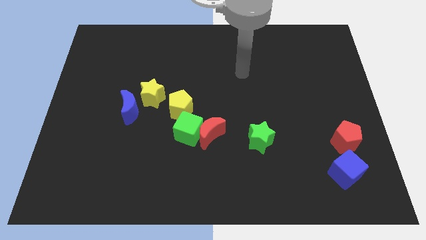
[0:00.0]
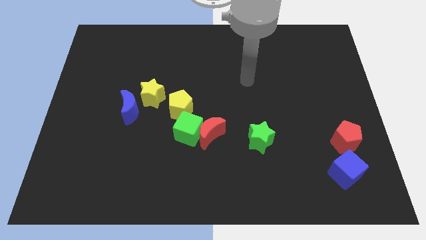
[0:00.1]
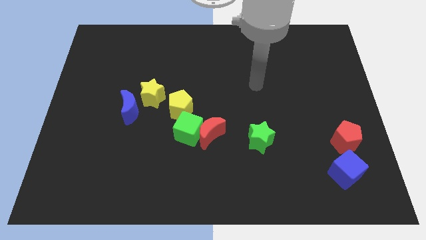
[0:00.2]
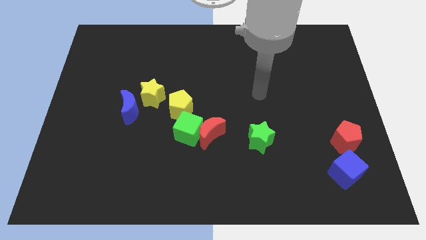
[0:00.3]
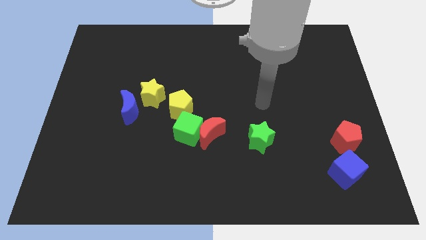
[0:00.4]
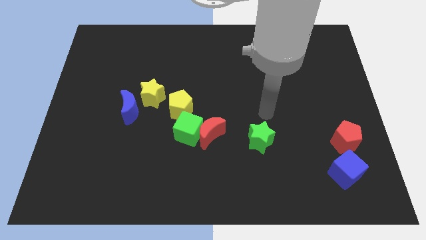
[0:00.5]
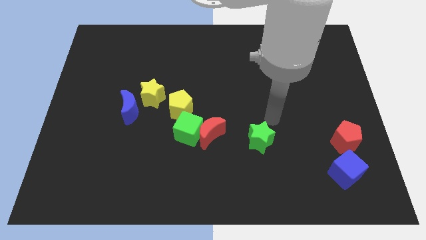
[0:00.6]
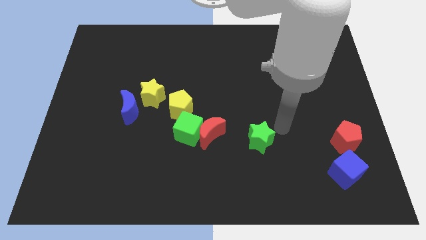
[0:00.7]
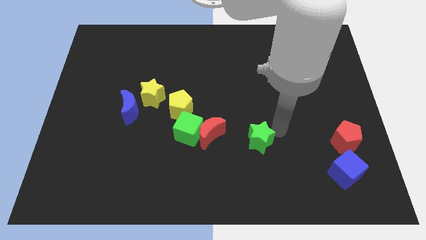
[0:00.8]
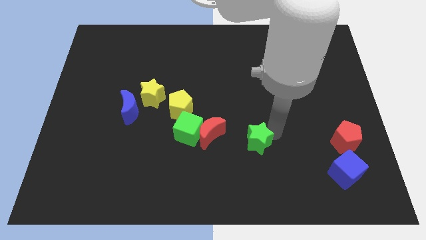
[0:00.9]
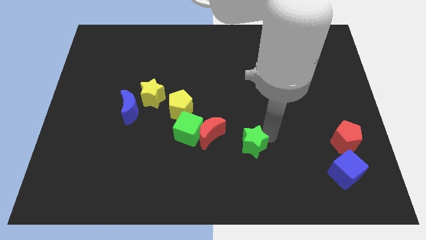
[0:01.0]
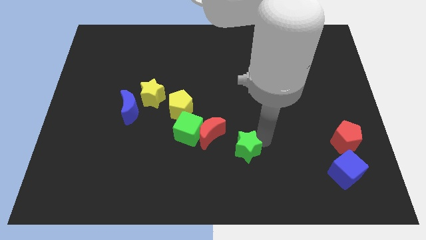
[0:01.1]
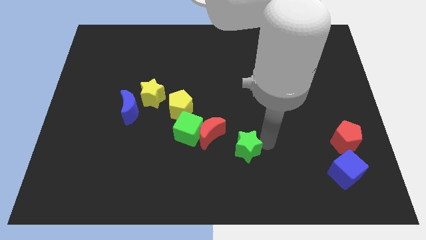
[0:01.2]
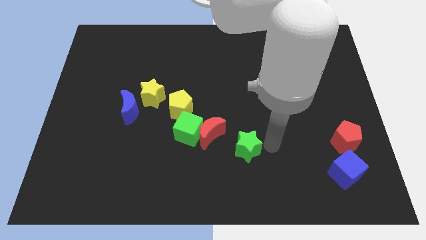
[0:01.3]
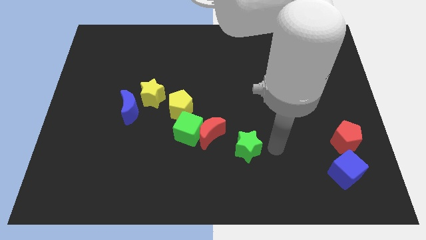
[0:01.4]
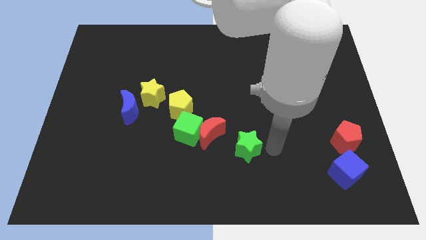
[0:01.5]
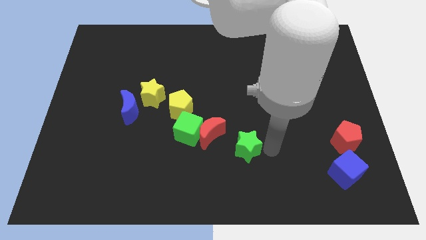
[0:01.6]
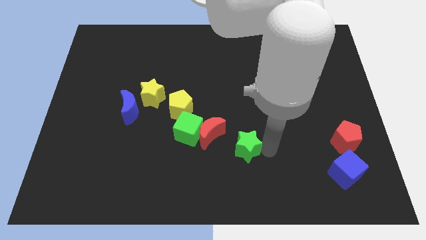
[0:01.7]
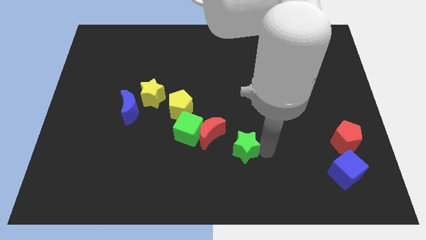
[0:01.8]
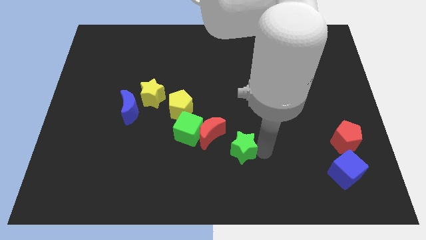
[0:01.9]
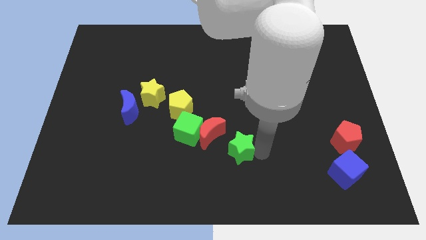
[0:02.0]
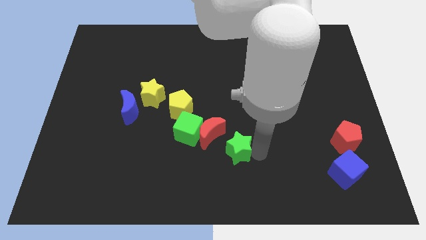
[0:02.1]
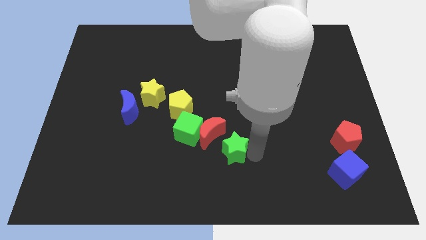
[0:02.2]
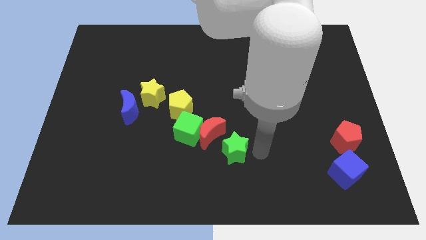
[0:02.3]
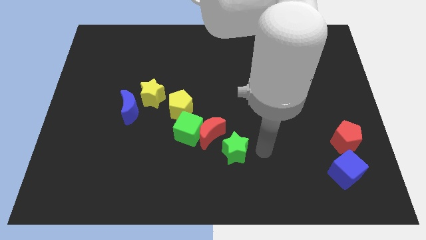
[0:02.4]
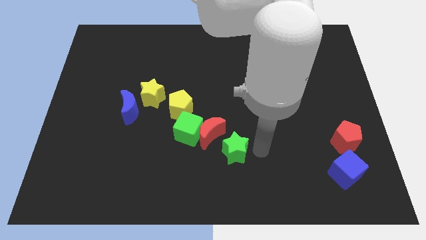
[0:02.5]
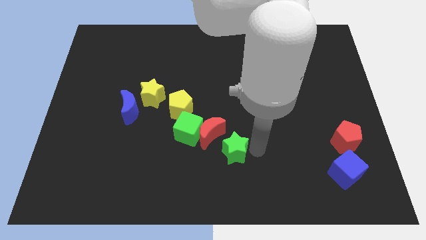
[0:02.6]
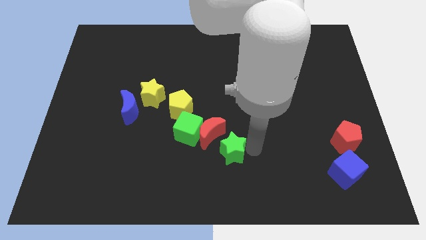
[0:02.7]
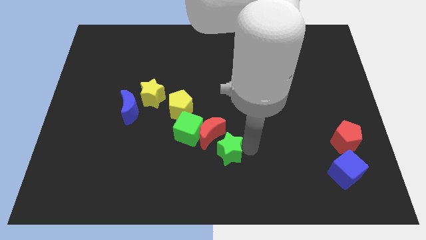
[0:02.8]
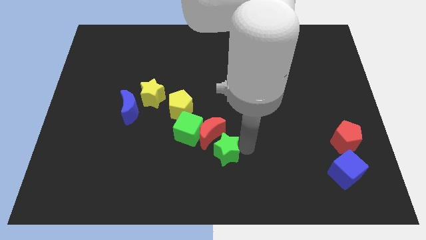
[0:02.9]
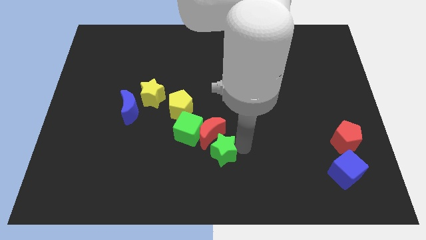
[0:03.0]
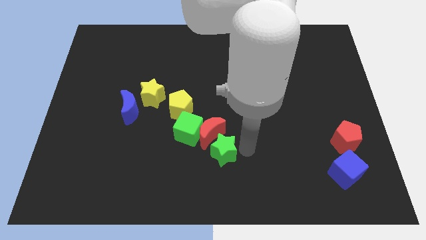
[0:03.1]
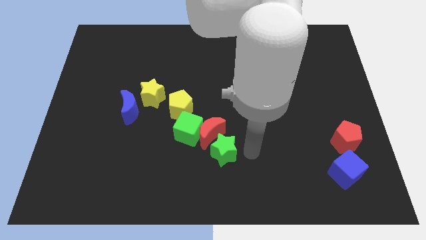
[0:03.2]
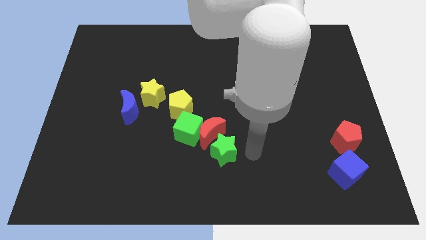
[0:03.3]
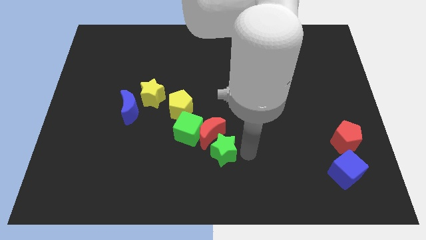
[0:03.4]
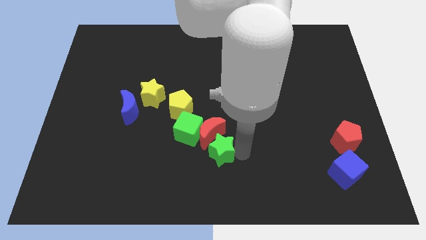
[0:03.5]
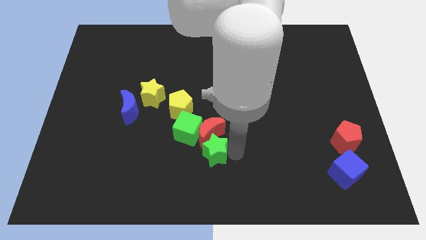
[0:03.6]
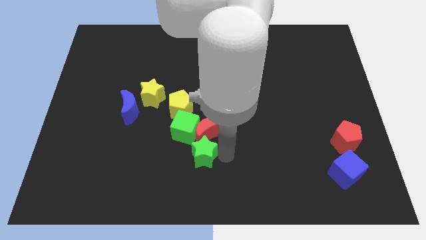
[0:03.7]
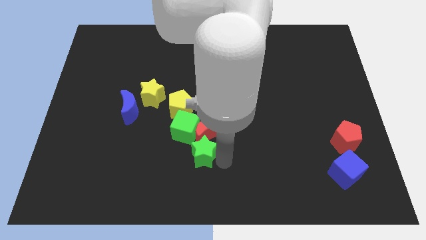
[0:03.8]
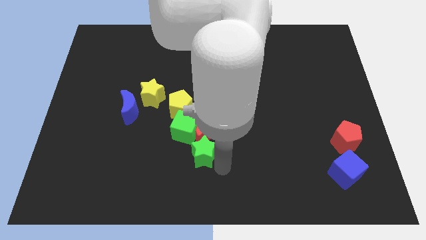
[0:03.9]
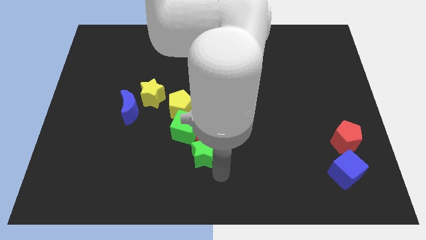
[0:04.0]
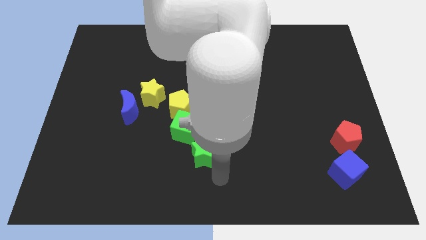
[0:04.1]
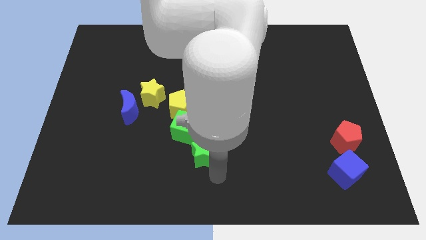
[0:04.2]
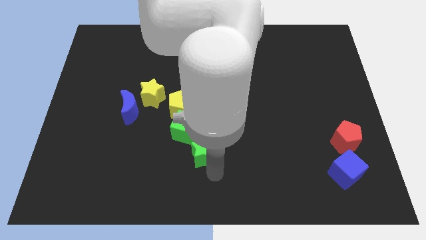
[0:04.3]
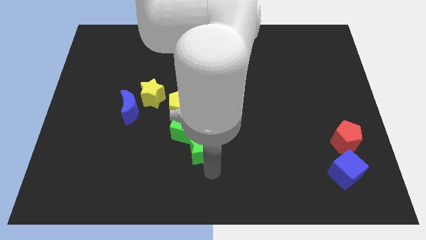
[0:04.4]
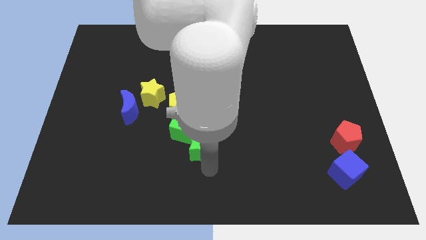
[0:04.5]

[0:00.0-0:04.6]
put the green star close to the green cube

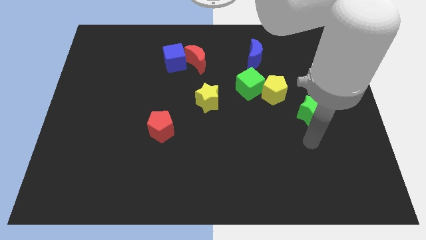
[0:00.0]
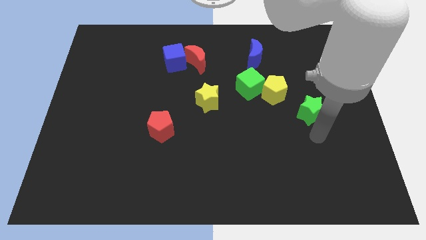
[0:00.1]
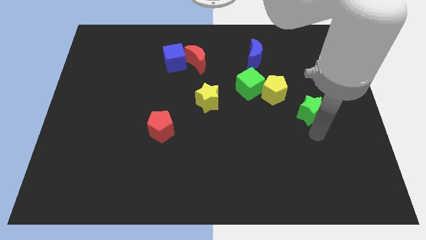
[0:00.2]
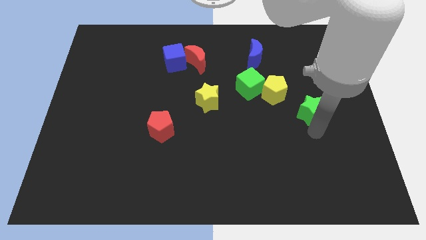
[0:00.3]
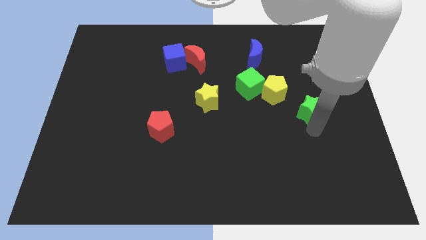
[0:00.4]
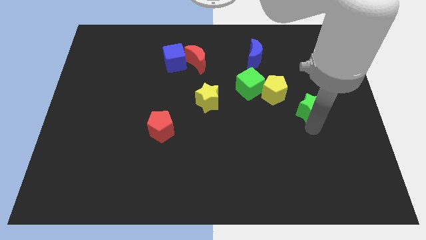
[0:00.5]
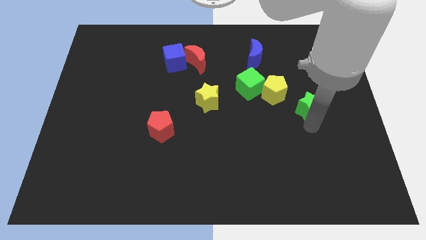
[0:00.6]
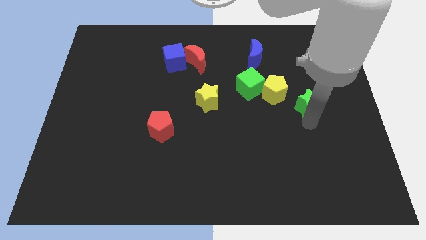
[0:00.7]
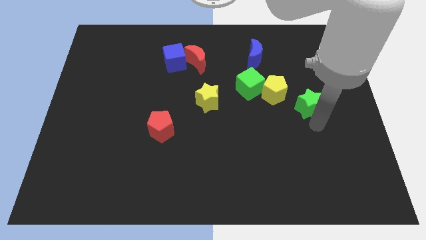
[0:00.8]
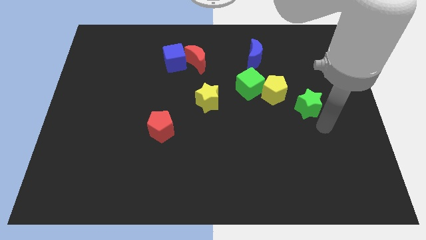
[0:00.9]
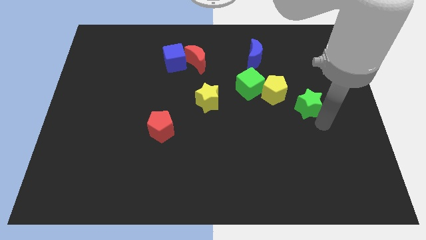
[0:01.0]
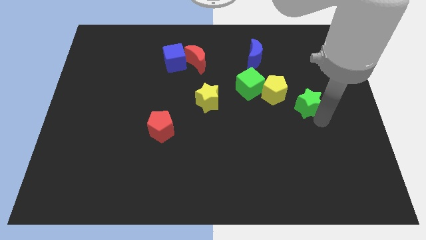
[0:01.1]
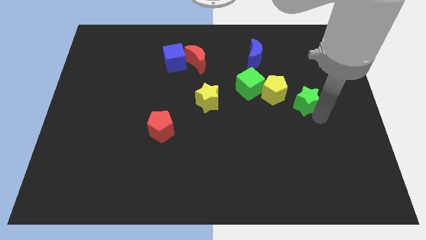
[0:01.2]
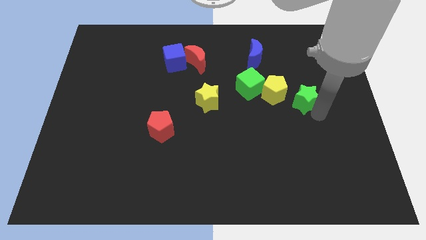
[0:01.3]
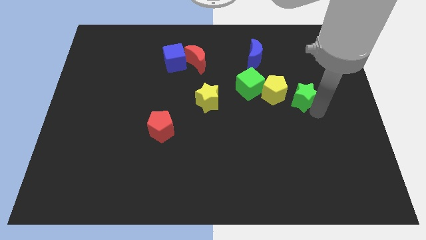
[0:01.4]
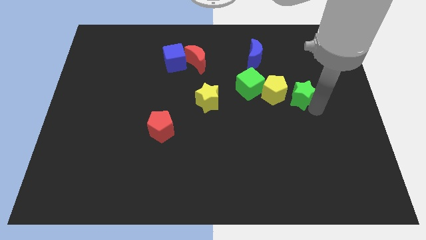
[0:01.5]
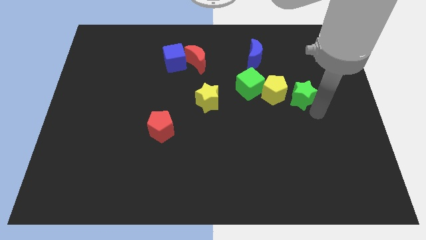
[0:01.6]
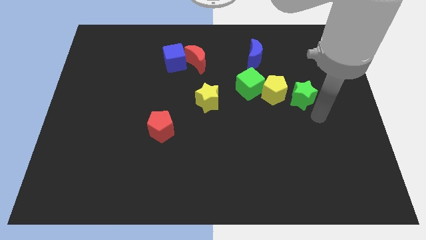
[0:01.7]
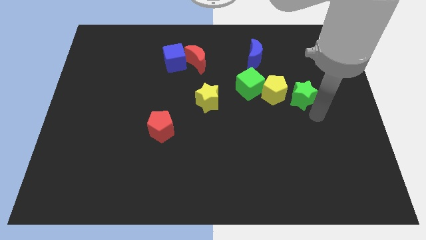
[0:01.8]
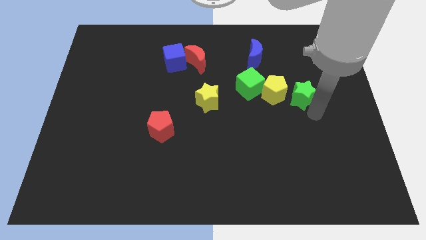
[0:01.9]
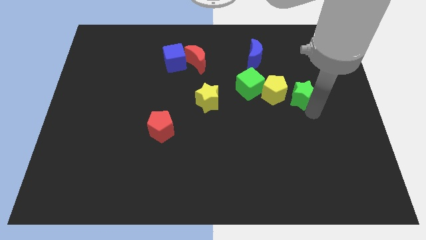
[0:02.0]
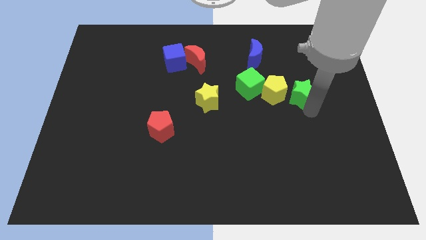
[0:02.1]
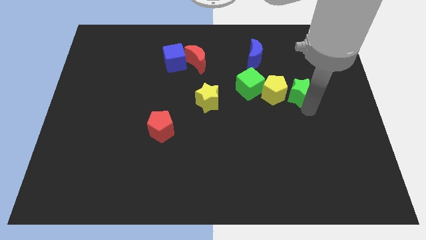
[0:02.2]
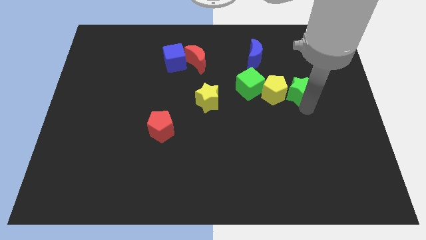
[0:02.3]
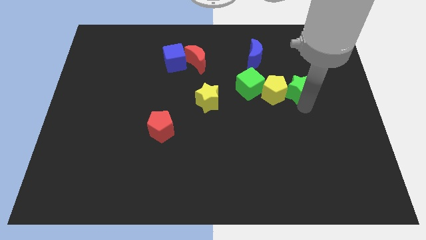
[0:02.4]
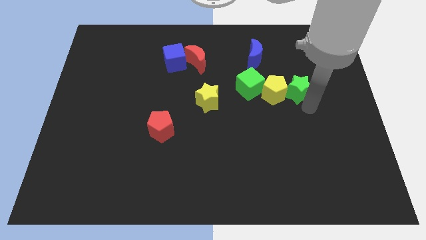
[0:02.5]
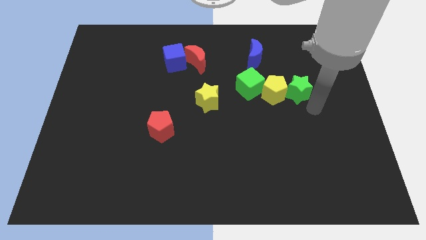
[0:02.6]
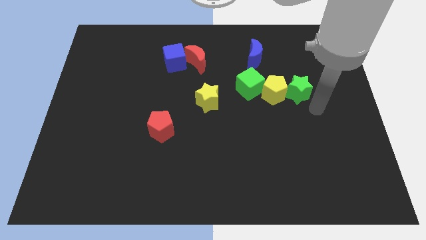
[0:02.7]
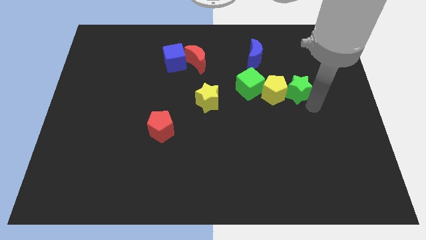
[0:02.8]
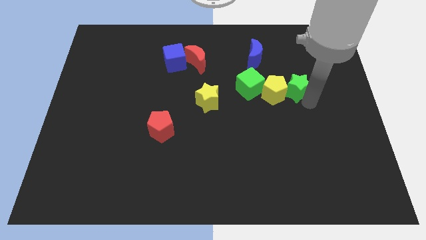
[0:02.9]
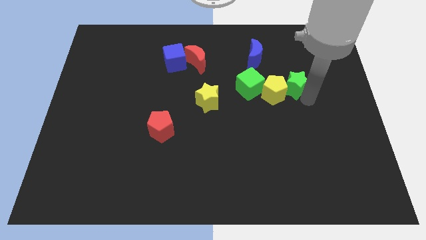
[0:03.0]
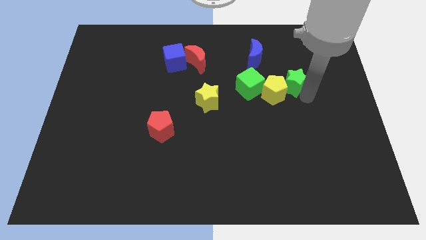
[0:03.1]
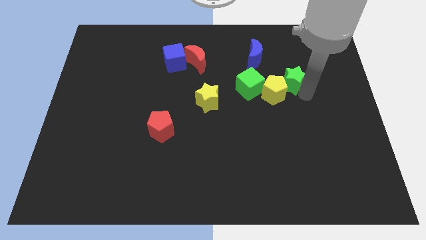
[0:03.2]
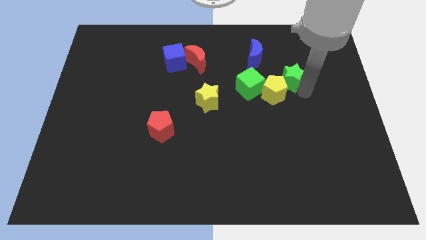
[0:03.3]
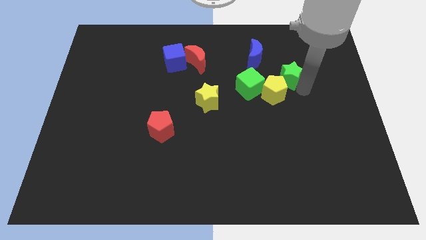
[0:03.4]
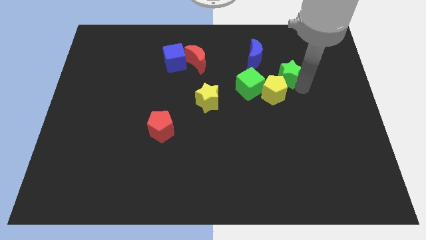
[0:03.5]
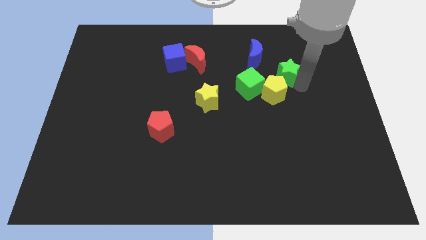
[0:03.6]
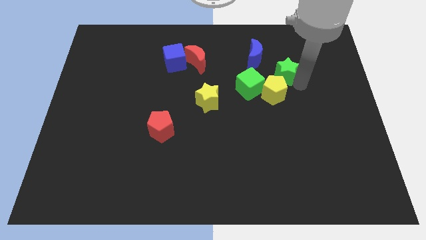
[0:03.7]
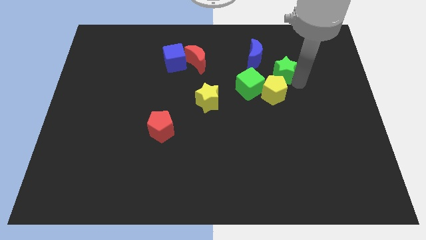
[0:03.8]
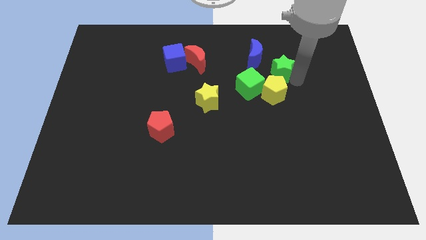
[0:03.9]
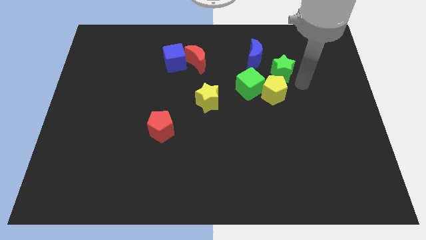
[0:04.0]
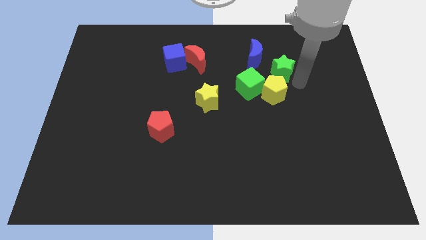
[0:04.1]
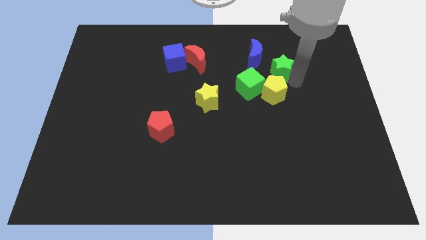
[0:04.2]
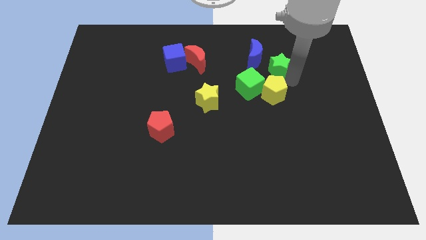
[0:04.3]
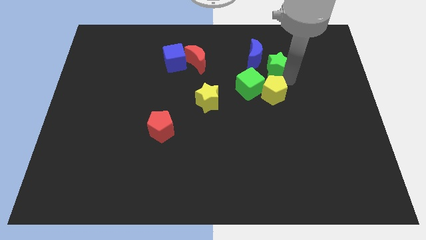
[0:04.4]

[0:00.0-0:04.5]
move the green star next to the blue moon
